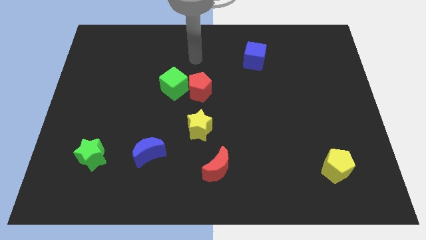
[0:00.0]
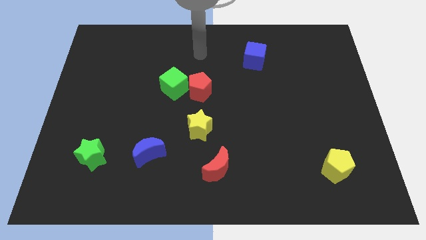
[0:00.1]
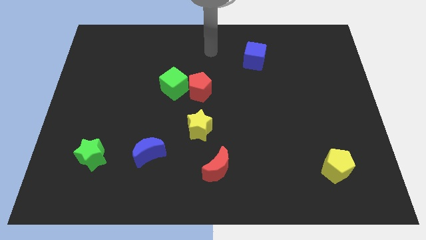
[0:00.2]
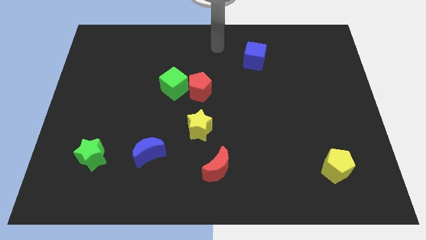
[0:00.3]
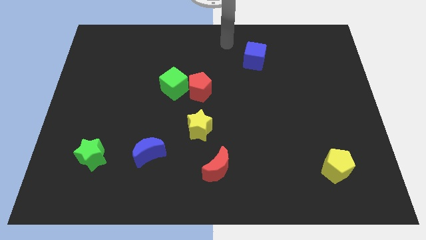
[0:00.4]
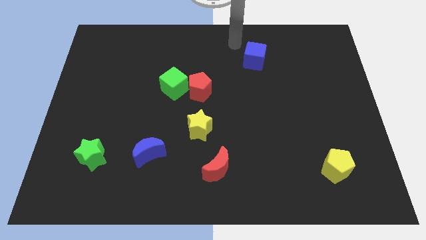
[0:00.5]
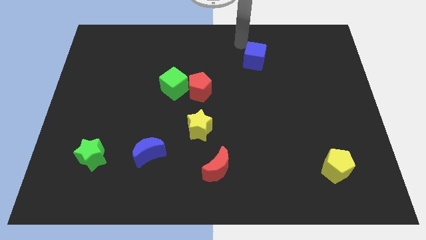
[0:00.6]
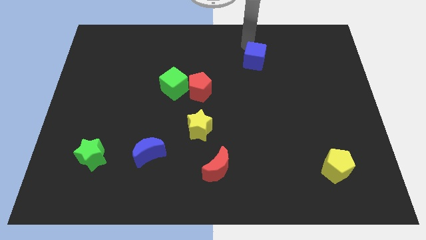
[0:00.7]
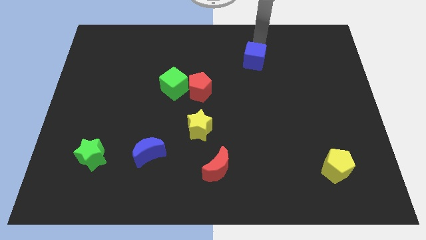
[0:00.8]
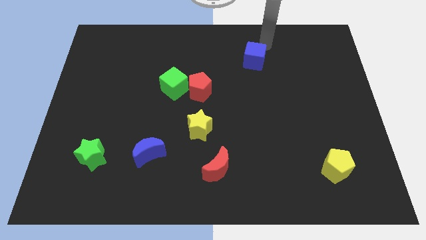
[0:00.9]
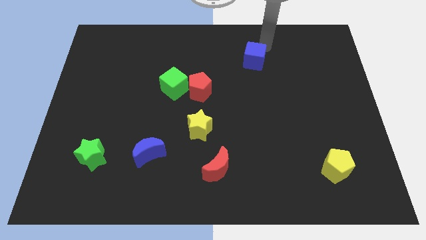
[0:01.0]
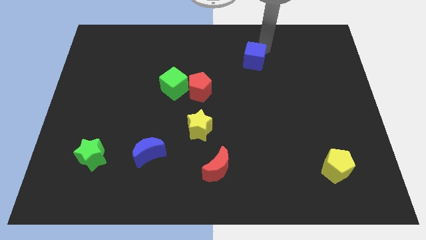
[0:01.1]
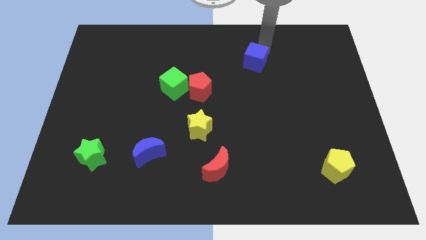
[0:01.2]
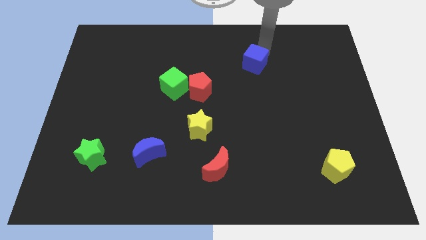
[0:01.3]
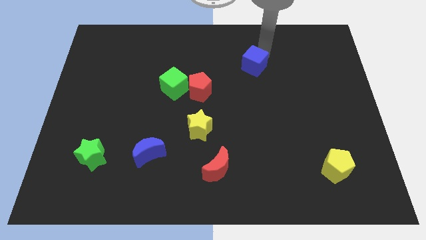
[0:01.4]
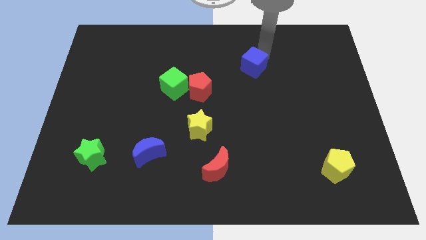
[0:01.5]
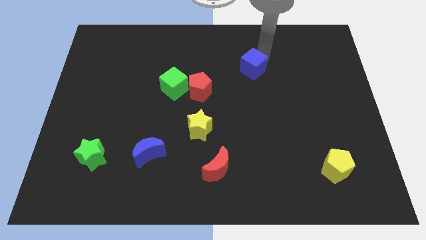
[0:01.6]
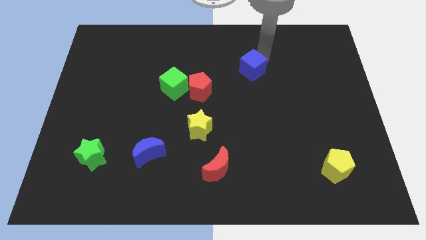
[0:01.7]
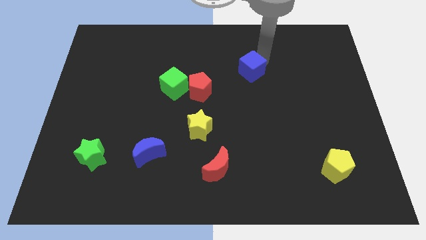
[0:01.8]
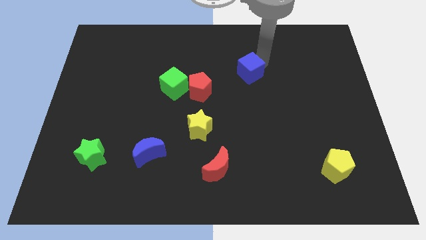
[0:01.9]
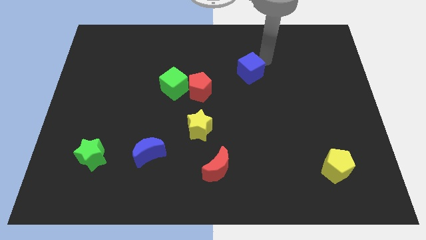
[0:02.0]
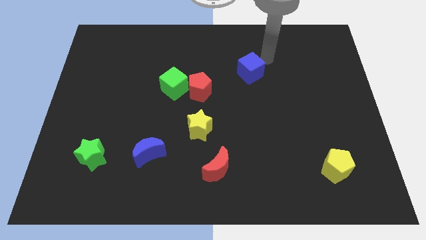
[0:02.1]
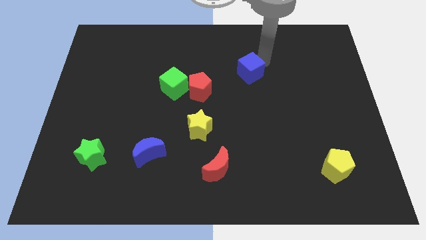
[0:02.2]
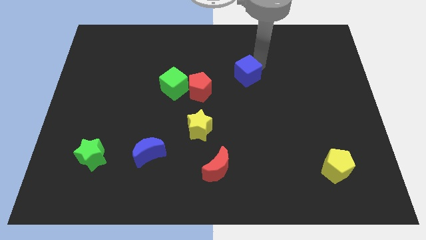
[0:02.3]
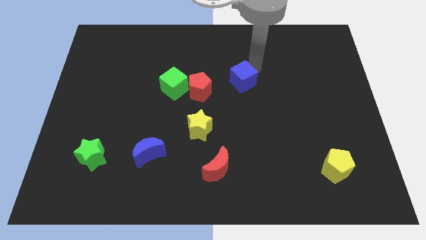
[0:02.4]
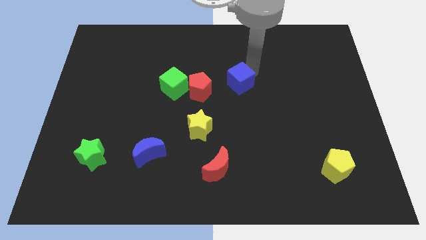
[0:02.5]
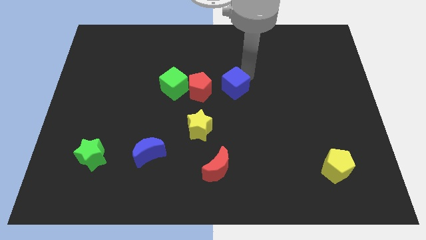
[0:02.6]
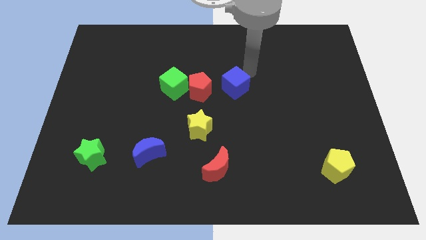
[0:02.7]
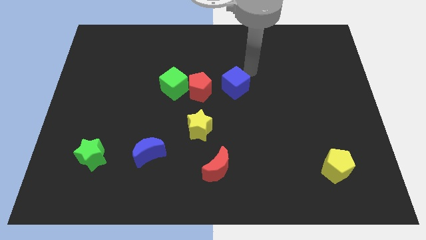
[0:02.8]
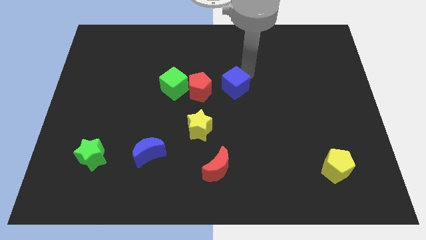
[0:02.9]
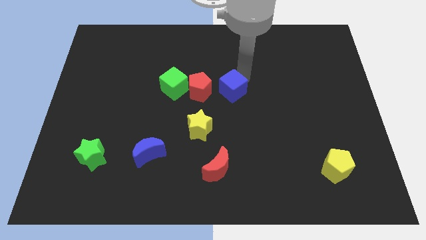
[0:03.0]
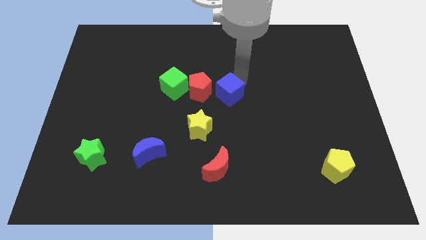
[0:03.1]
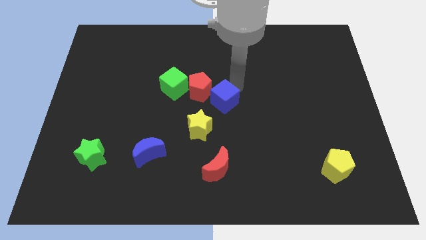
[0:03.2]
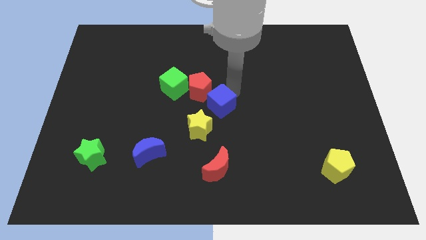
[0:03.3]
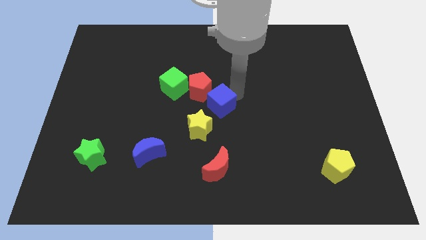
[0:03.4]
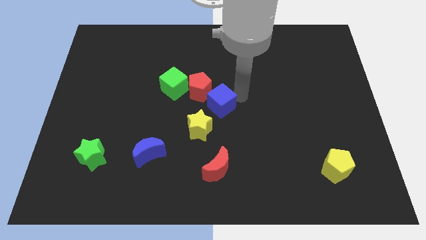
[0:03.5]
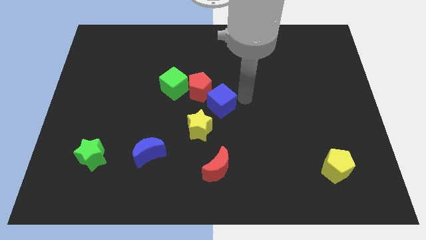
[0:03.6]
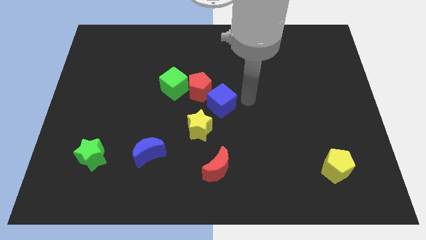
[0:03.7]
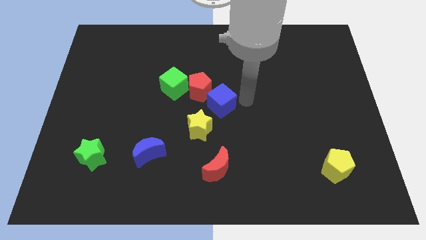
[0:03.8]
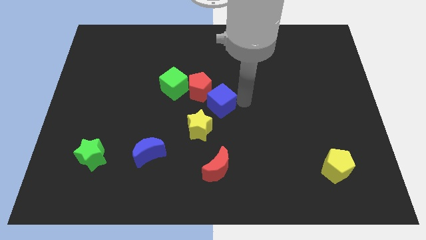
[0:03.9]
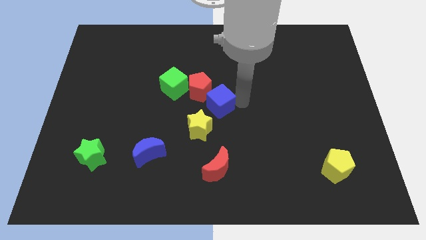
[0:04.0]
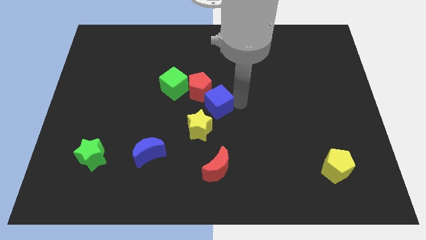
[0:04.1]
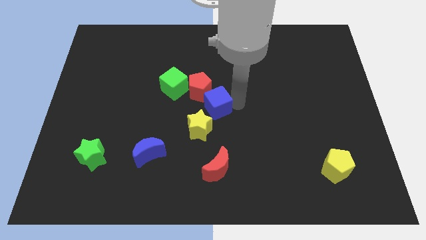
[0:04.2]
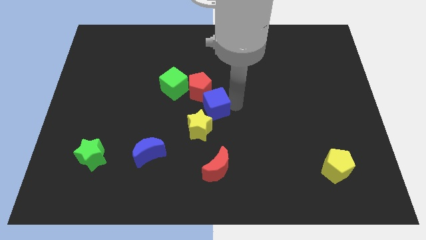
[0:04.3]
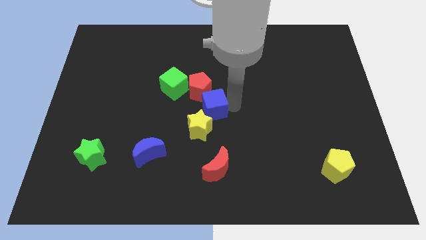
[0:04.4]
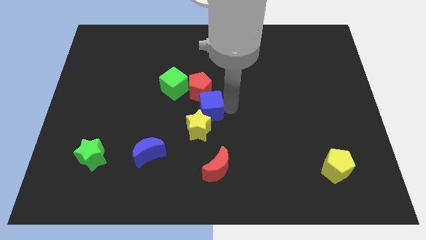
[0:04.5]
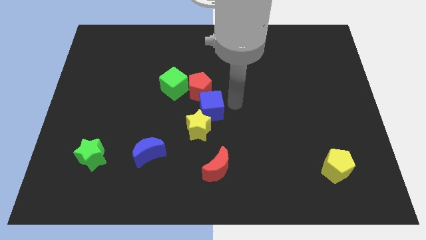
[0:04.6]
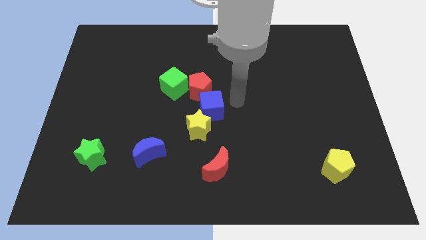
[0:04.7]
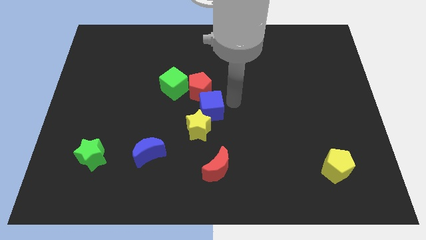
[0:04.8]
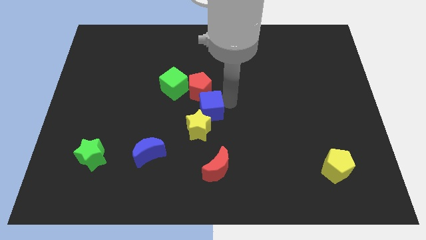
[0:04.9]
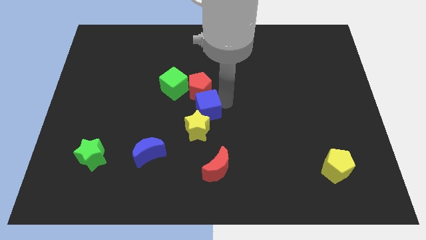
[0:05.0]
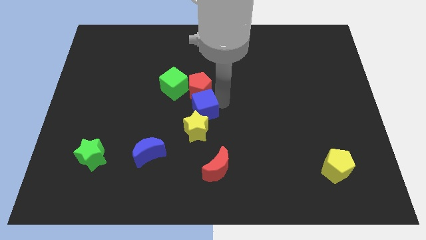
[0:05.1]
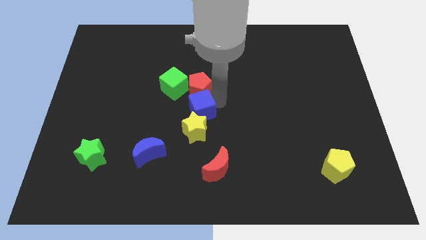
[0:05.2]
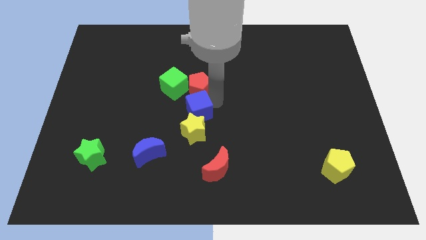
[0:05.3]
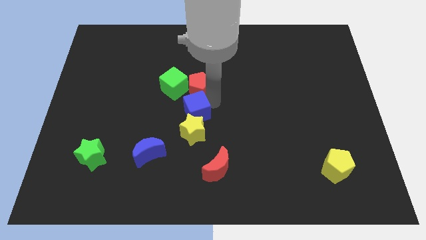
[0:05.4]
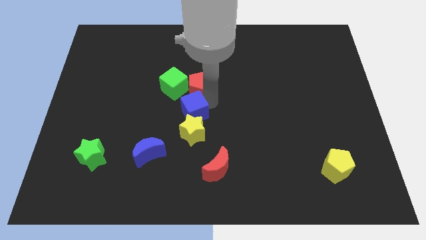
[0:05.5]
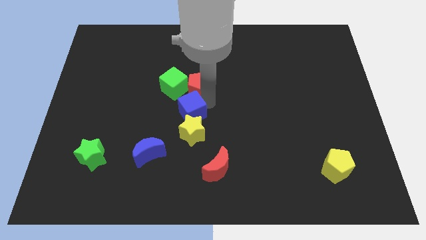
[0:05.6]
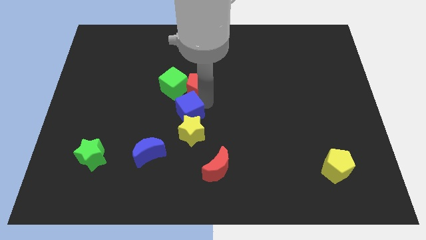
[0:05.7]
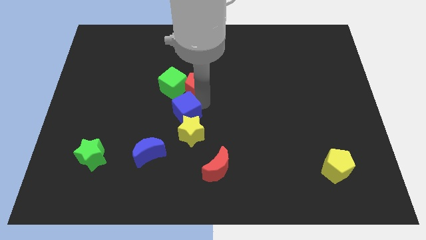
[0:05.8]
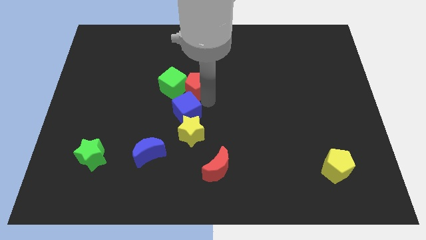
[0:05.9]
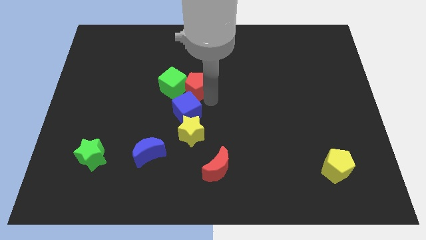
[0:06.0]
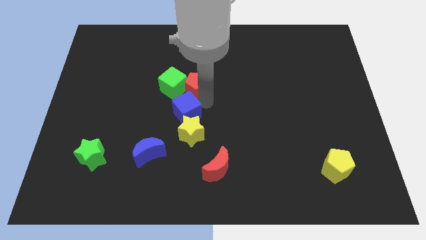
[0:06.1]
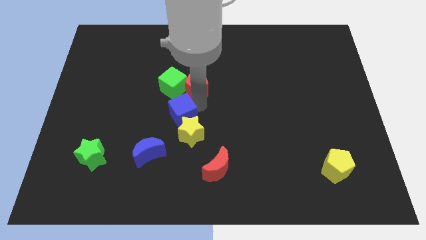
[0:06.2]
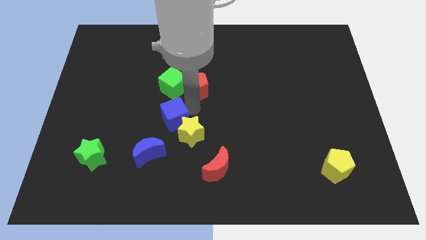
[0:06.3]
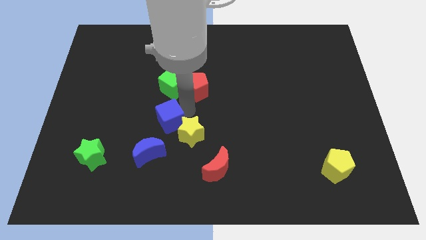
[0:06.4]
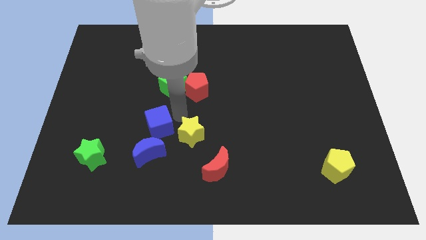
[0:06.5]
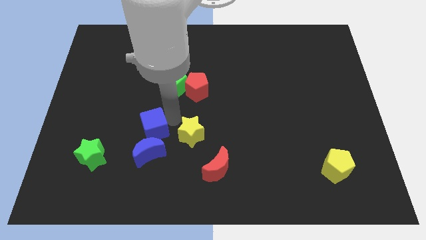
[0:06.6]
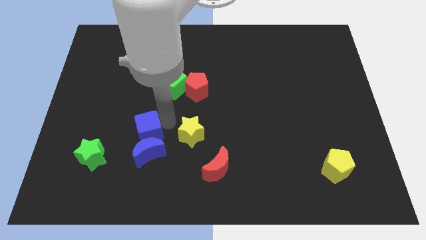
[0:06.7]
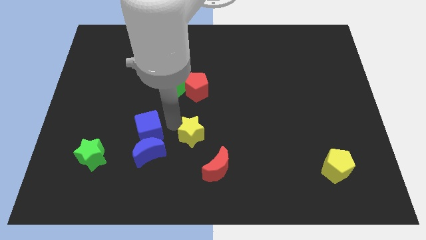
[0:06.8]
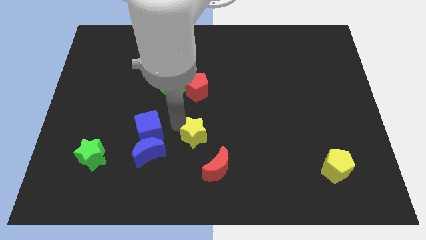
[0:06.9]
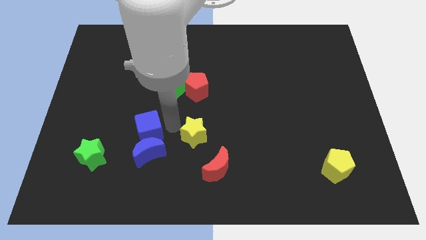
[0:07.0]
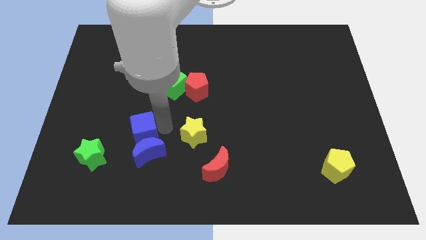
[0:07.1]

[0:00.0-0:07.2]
slide the blue cube to the top right of the green star
